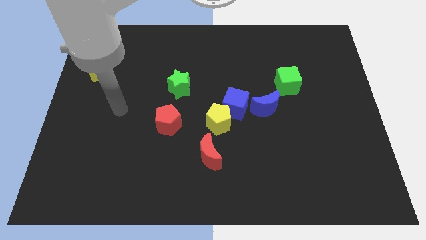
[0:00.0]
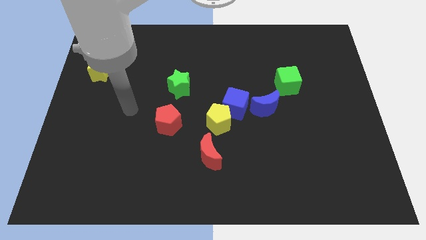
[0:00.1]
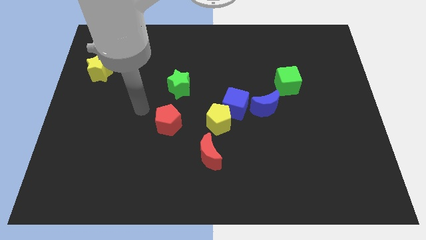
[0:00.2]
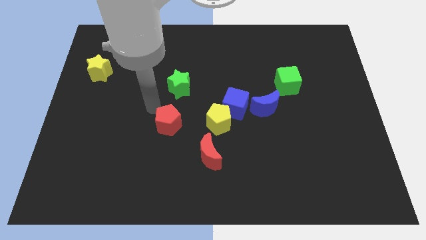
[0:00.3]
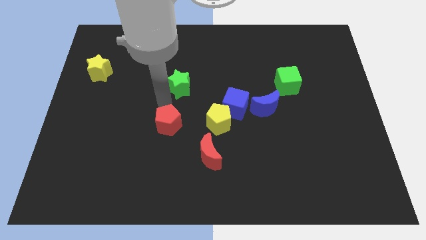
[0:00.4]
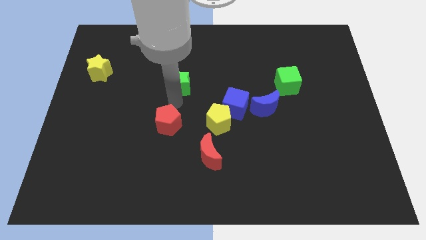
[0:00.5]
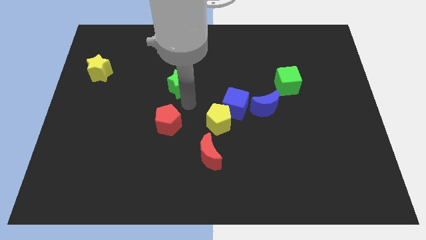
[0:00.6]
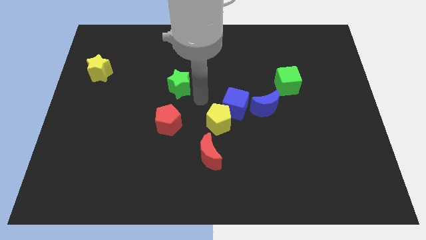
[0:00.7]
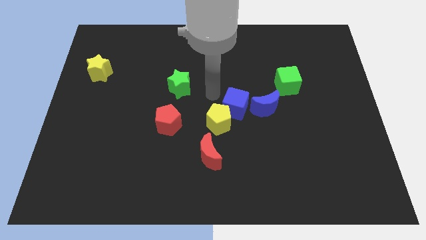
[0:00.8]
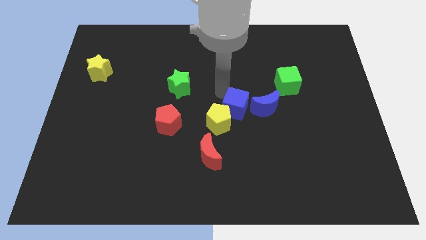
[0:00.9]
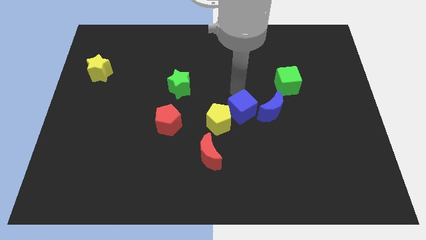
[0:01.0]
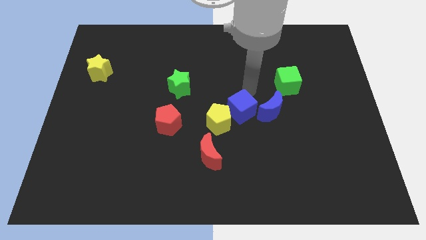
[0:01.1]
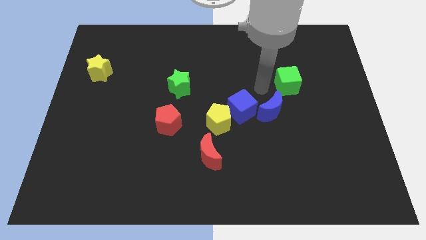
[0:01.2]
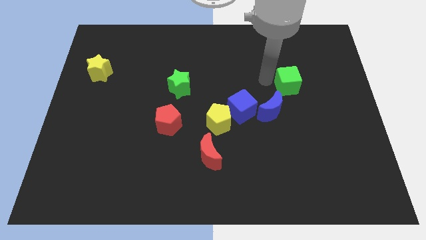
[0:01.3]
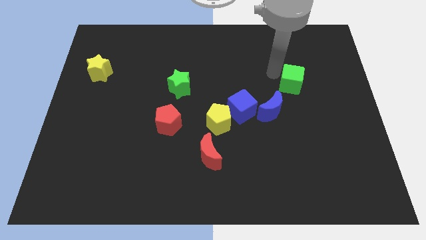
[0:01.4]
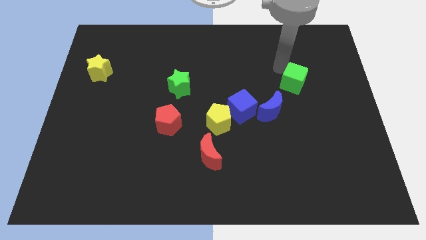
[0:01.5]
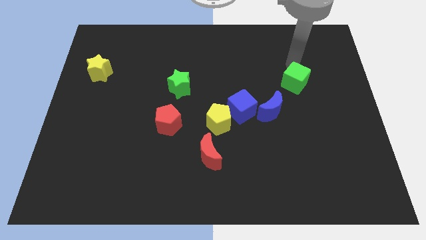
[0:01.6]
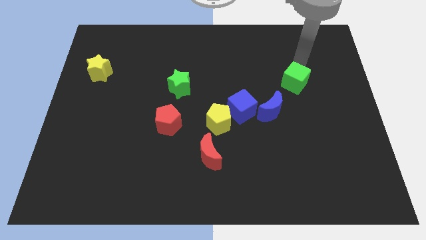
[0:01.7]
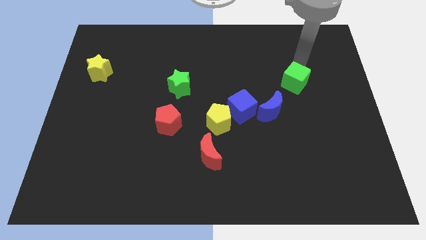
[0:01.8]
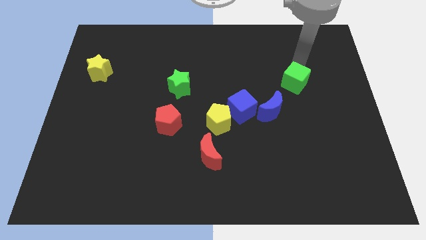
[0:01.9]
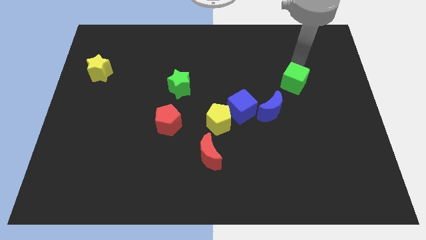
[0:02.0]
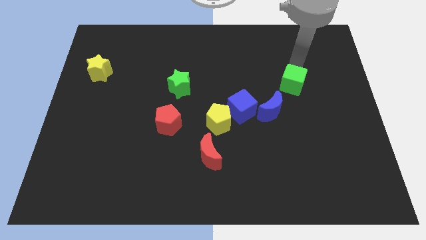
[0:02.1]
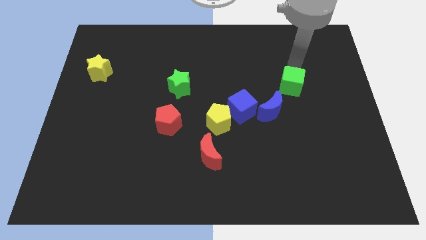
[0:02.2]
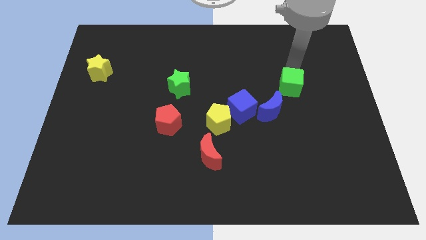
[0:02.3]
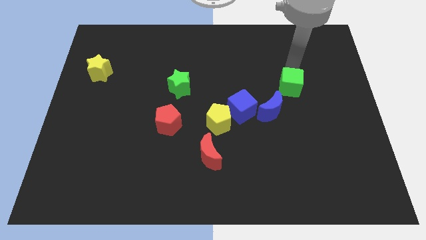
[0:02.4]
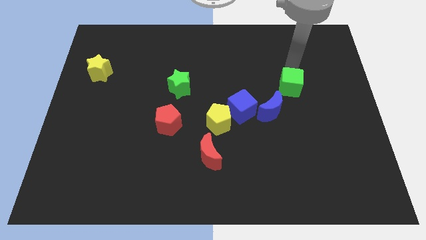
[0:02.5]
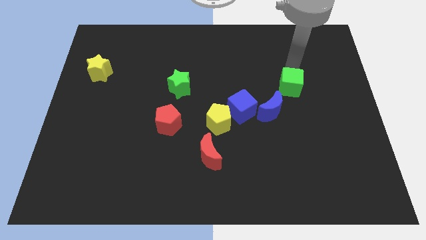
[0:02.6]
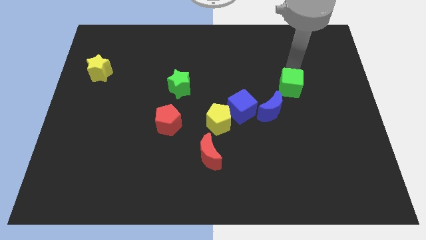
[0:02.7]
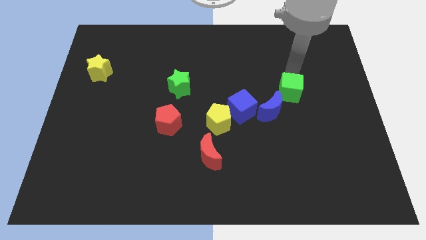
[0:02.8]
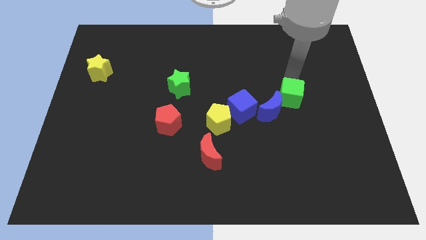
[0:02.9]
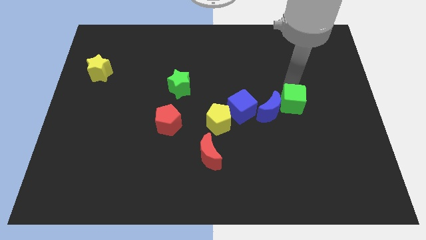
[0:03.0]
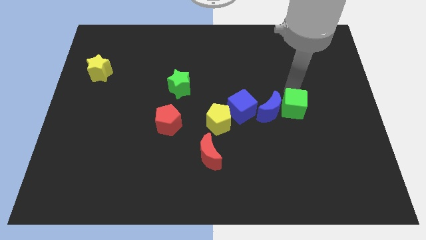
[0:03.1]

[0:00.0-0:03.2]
push the green cube downwards somewhat

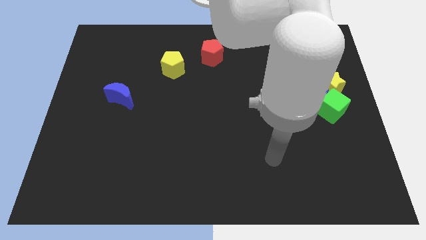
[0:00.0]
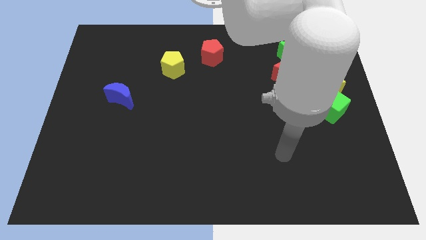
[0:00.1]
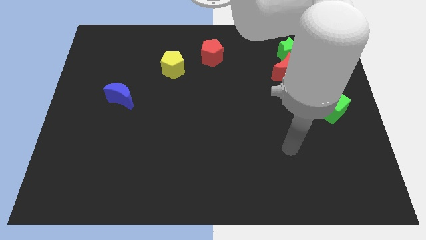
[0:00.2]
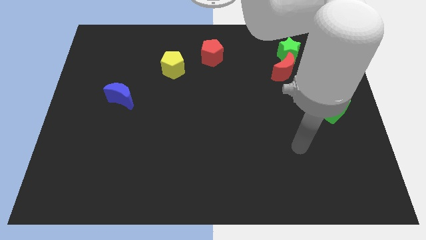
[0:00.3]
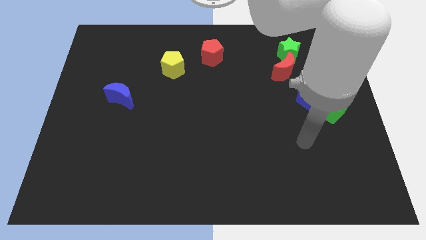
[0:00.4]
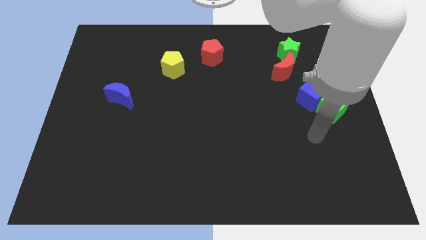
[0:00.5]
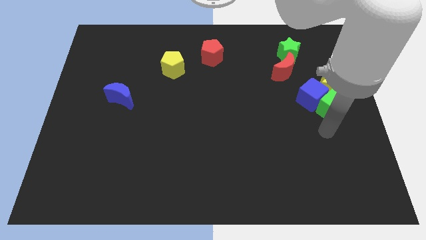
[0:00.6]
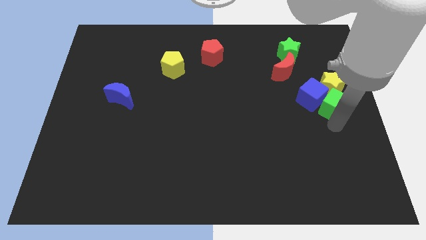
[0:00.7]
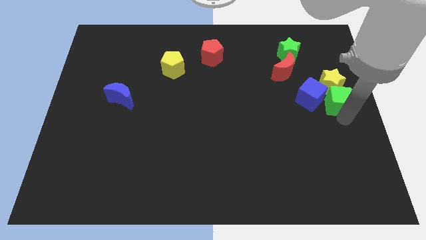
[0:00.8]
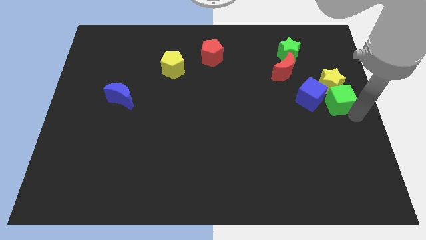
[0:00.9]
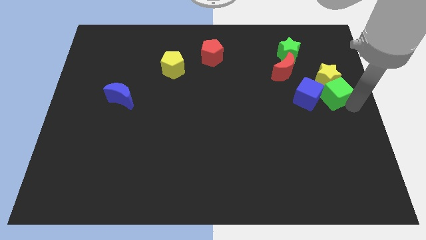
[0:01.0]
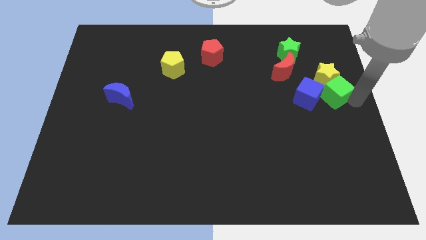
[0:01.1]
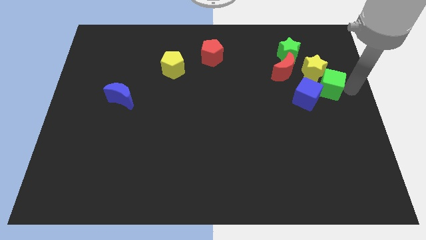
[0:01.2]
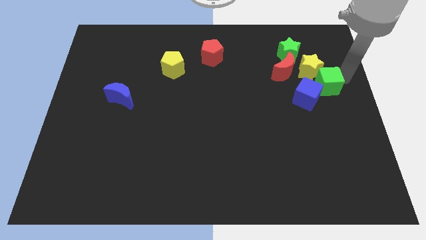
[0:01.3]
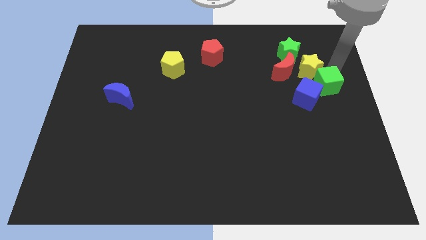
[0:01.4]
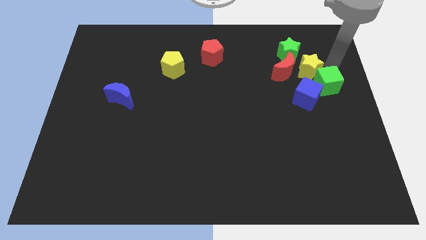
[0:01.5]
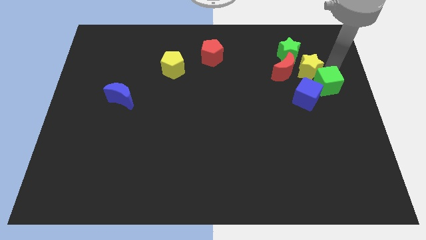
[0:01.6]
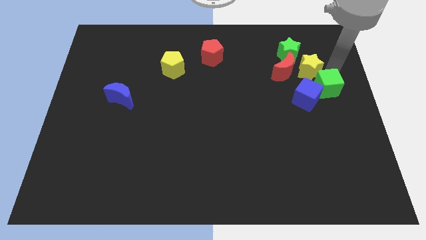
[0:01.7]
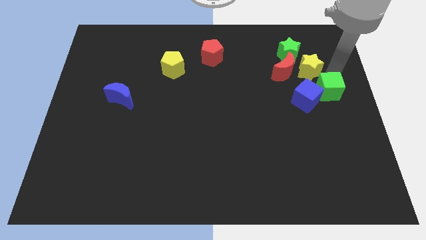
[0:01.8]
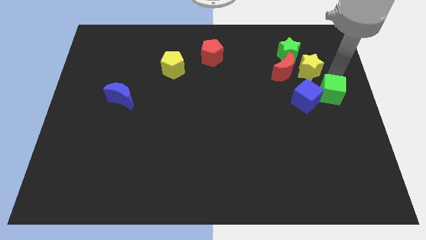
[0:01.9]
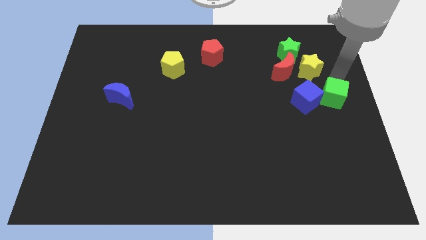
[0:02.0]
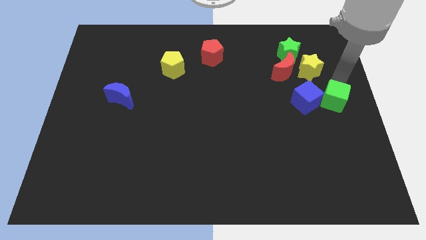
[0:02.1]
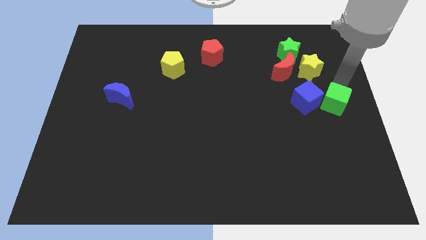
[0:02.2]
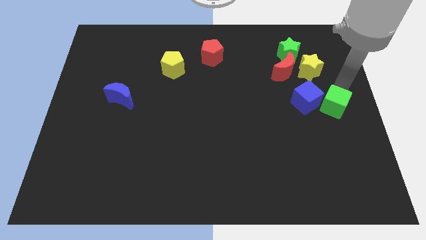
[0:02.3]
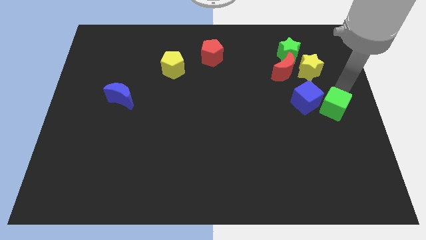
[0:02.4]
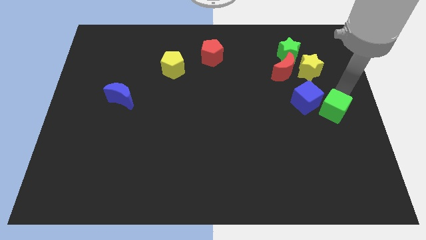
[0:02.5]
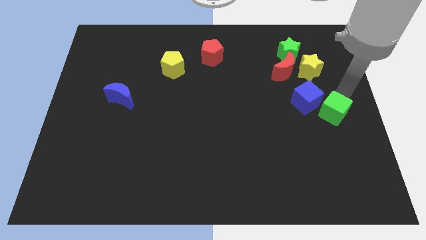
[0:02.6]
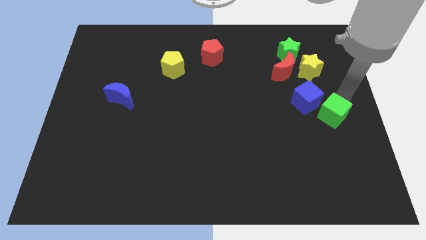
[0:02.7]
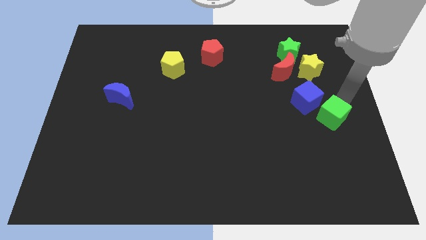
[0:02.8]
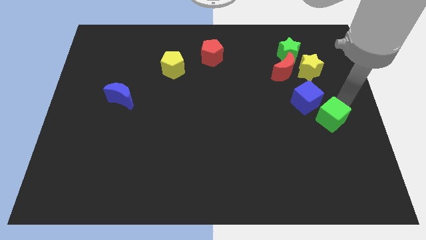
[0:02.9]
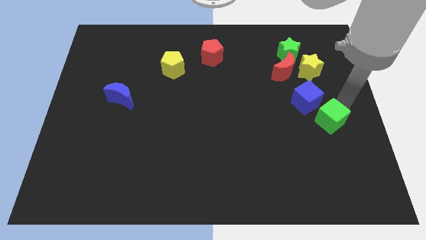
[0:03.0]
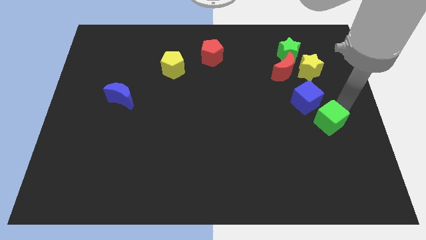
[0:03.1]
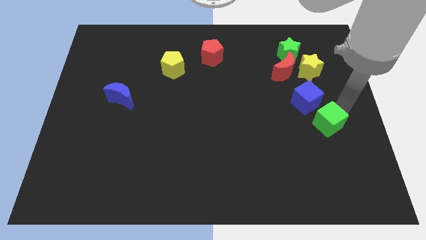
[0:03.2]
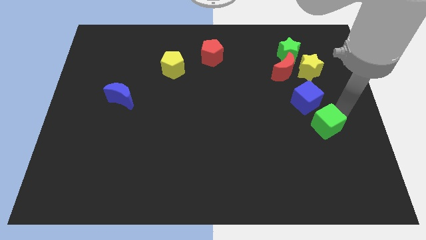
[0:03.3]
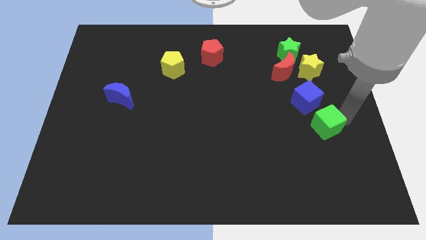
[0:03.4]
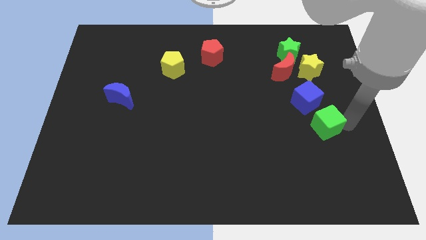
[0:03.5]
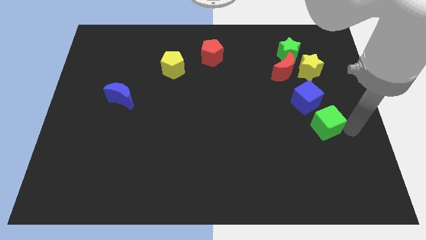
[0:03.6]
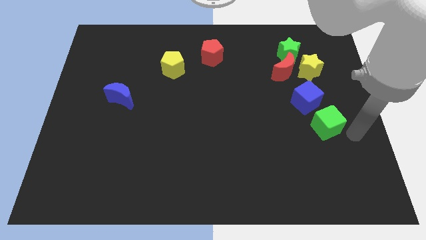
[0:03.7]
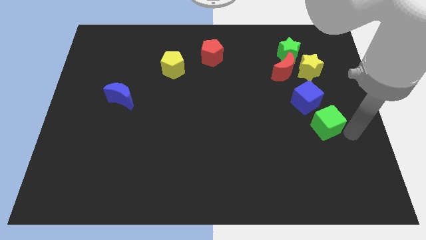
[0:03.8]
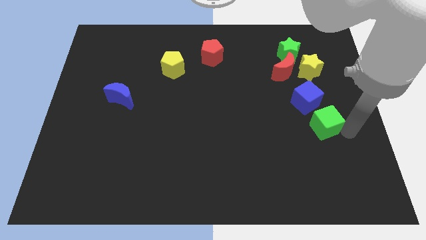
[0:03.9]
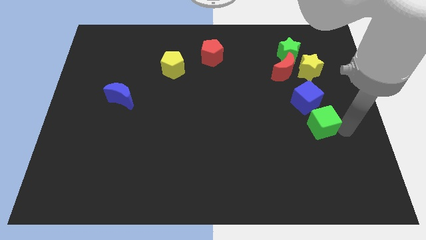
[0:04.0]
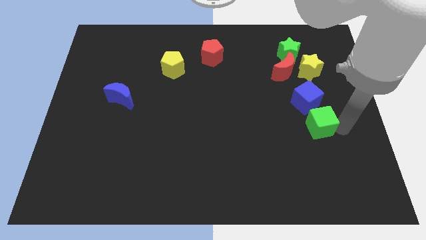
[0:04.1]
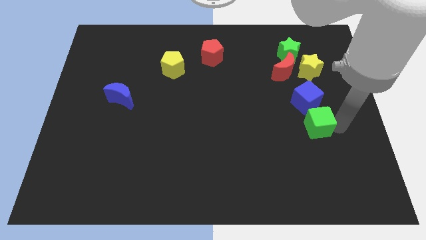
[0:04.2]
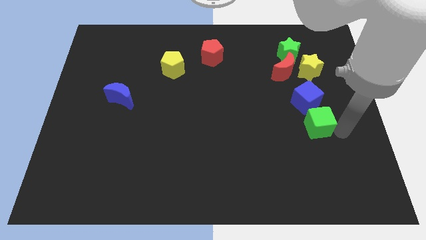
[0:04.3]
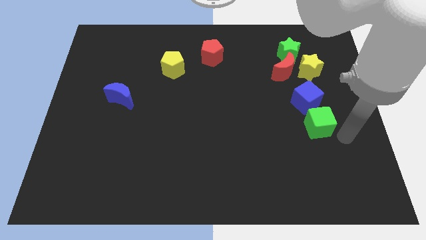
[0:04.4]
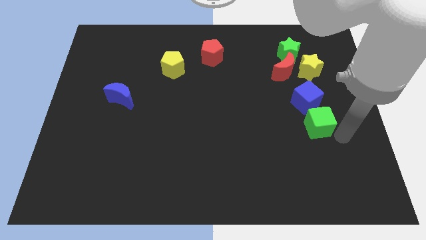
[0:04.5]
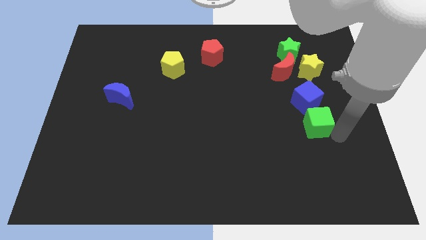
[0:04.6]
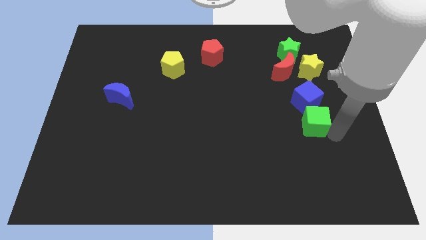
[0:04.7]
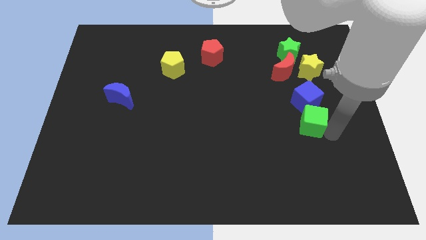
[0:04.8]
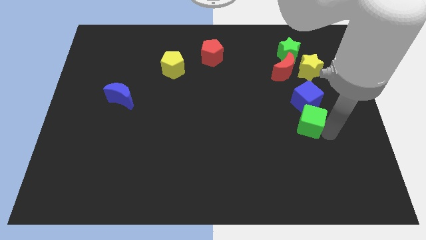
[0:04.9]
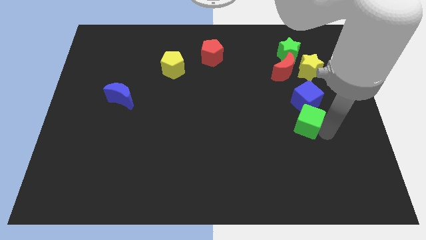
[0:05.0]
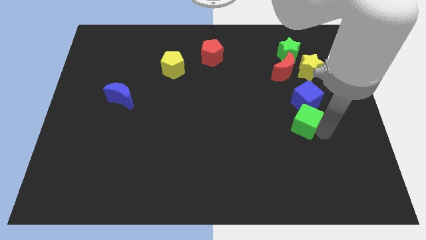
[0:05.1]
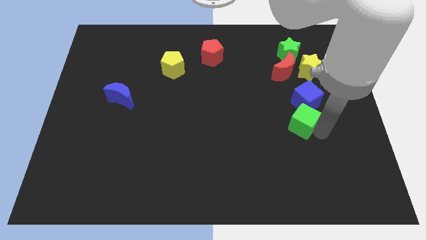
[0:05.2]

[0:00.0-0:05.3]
slide the green cube left slightly
